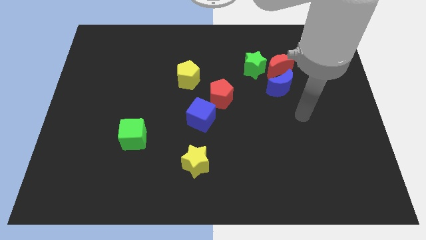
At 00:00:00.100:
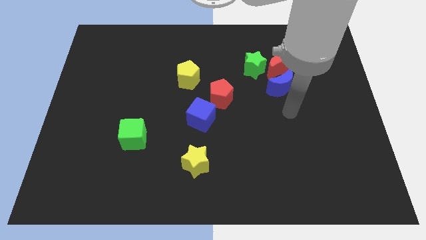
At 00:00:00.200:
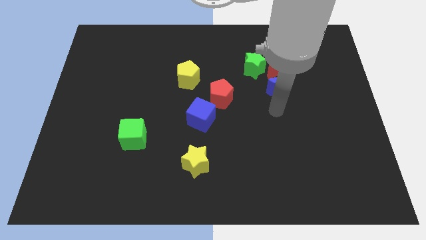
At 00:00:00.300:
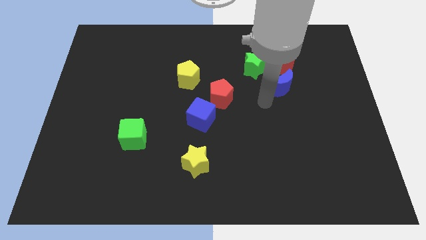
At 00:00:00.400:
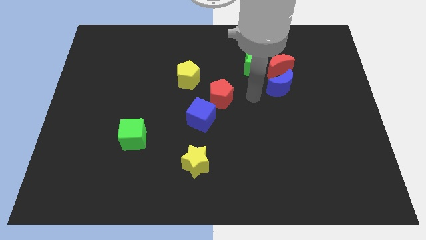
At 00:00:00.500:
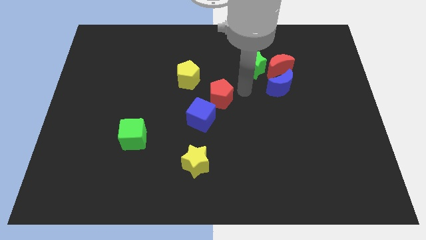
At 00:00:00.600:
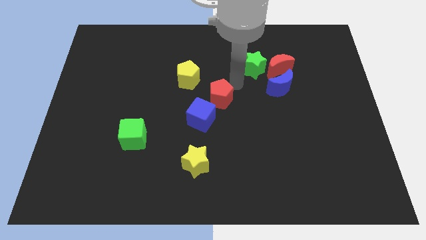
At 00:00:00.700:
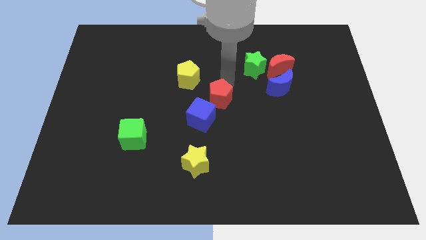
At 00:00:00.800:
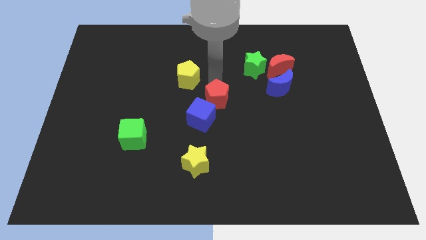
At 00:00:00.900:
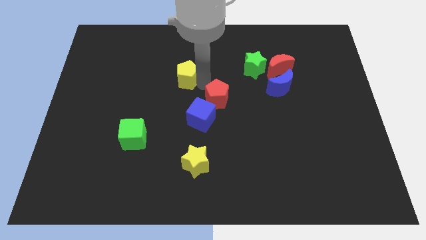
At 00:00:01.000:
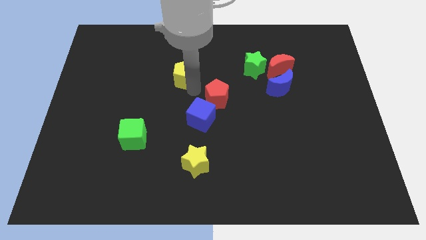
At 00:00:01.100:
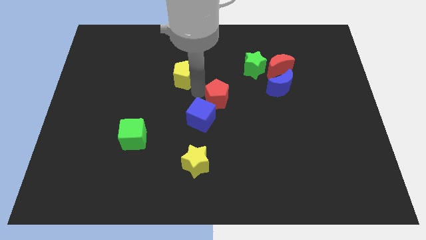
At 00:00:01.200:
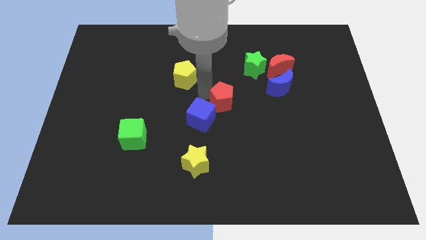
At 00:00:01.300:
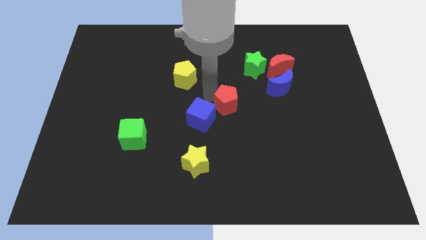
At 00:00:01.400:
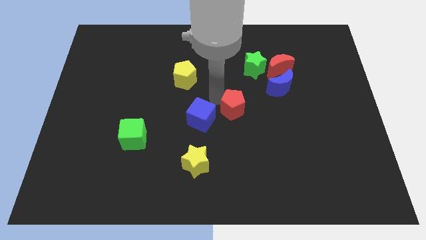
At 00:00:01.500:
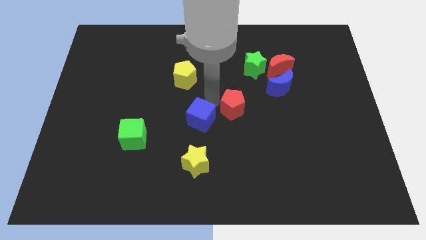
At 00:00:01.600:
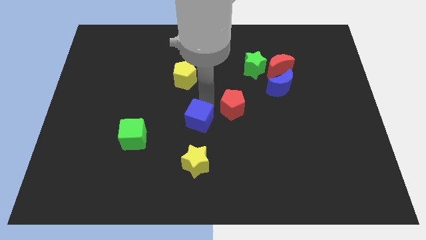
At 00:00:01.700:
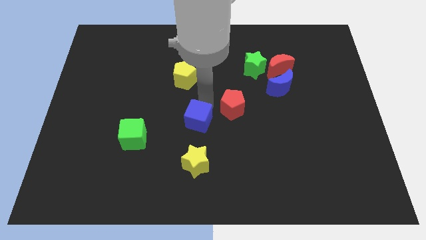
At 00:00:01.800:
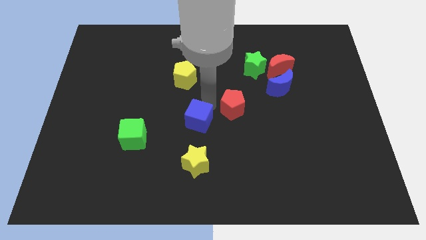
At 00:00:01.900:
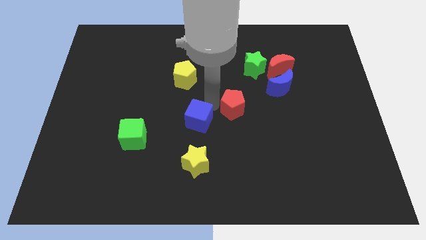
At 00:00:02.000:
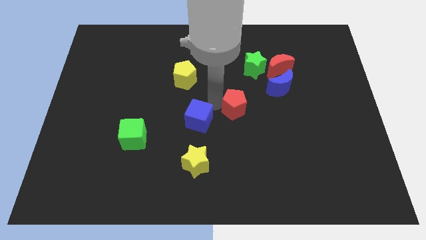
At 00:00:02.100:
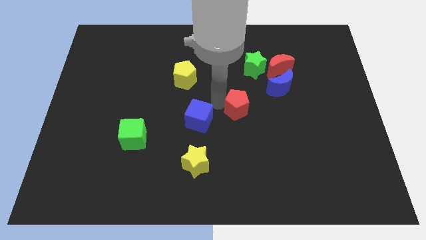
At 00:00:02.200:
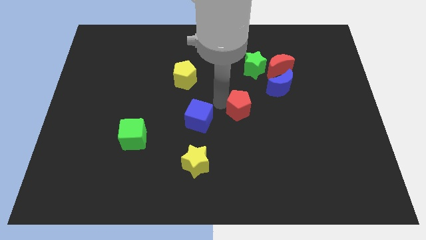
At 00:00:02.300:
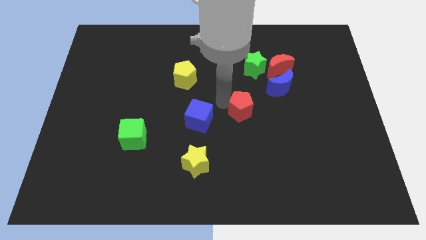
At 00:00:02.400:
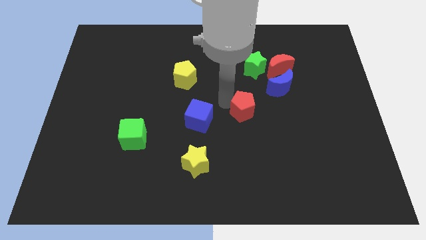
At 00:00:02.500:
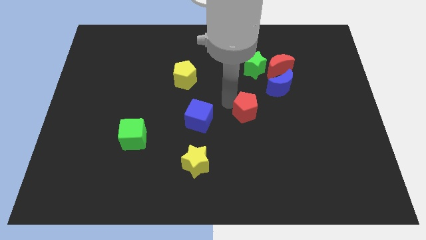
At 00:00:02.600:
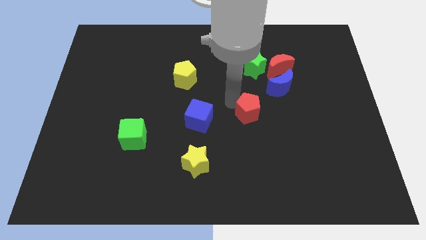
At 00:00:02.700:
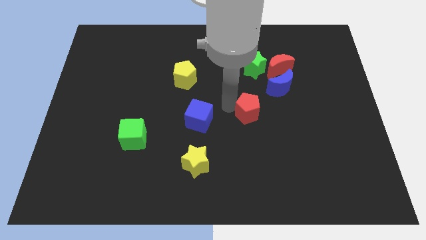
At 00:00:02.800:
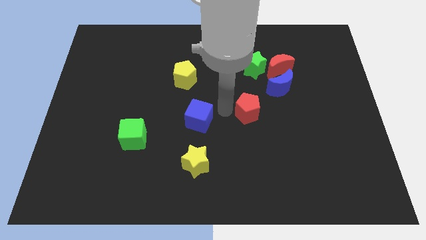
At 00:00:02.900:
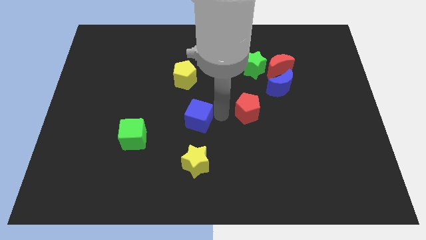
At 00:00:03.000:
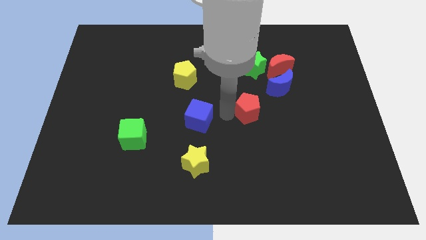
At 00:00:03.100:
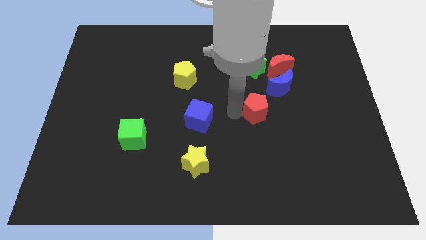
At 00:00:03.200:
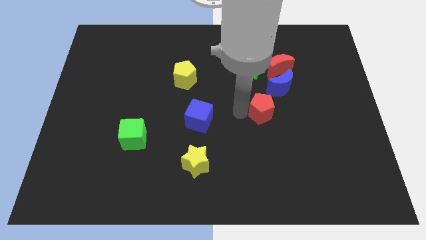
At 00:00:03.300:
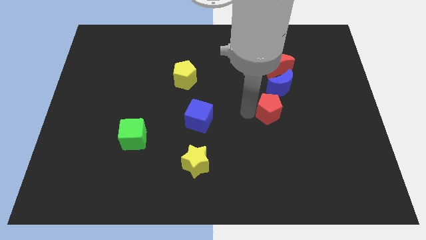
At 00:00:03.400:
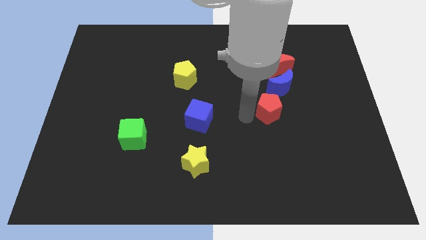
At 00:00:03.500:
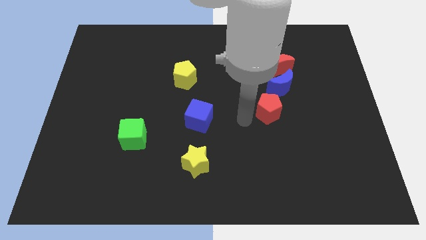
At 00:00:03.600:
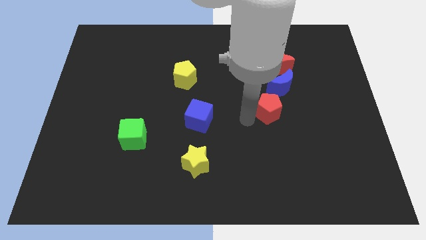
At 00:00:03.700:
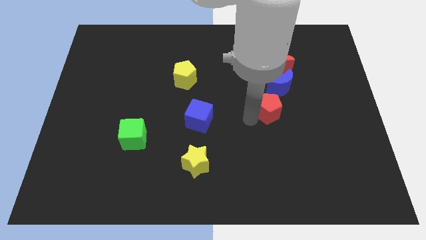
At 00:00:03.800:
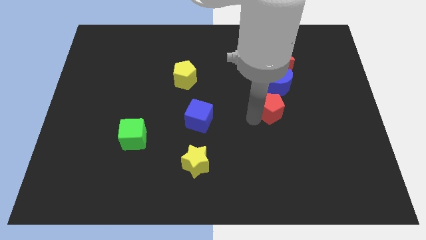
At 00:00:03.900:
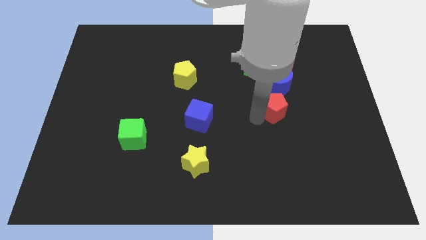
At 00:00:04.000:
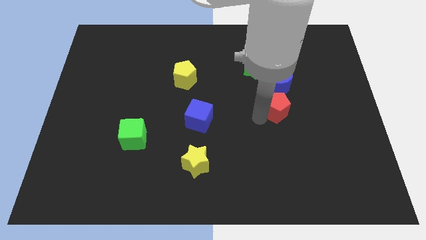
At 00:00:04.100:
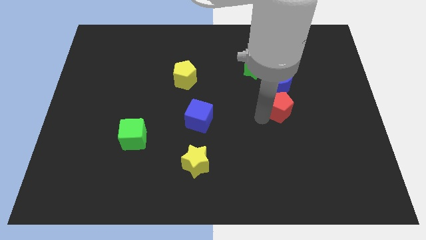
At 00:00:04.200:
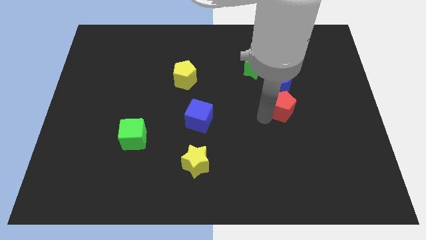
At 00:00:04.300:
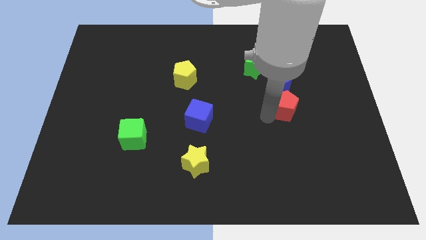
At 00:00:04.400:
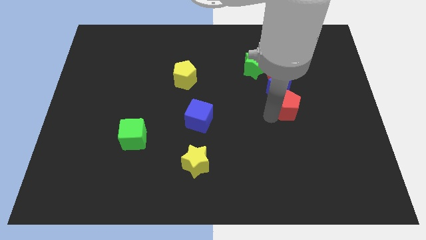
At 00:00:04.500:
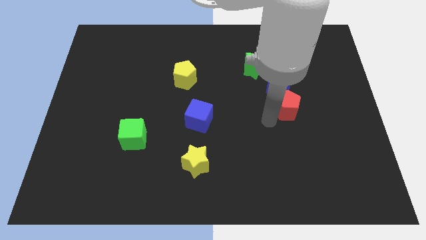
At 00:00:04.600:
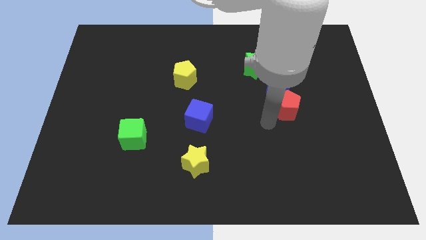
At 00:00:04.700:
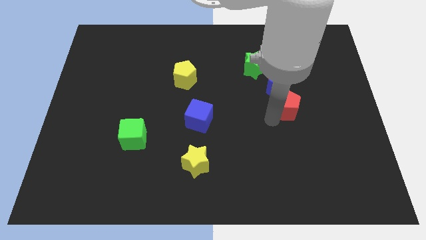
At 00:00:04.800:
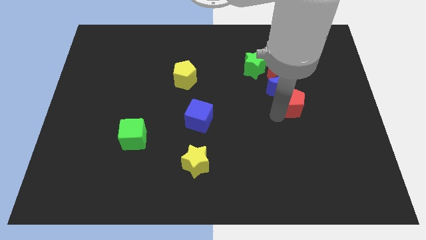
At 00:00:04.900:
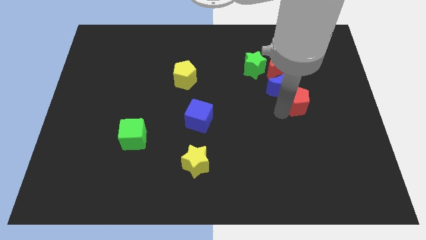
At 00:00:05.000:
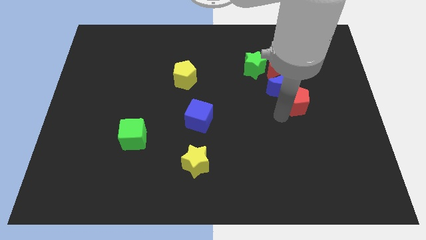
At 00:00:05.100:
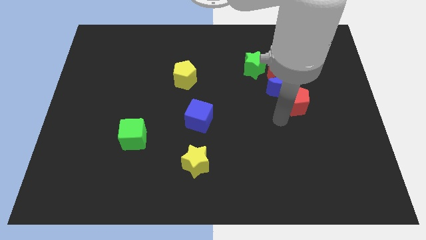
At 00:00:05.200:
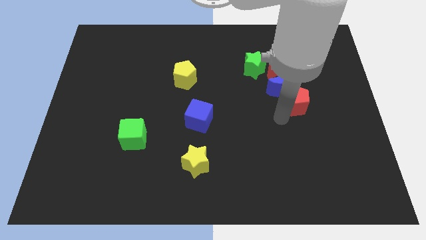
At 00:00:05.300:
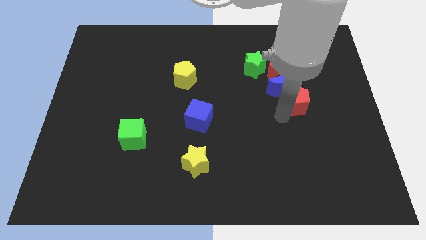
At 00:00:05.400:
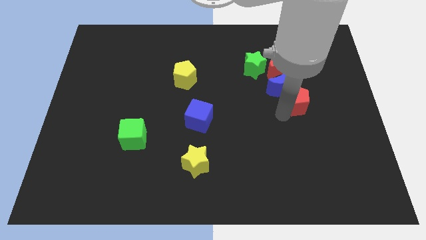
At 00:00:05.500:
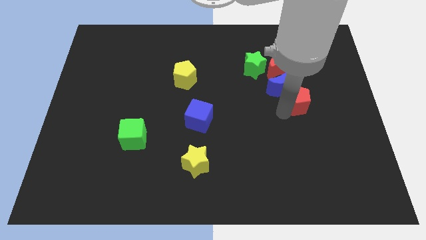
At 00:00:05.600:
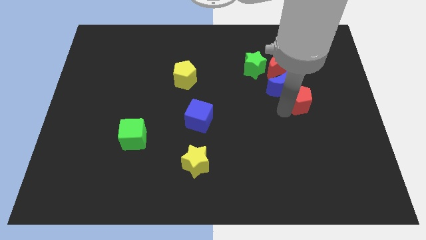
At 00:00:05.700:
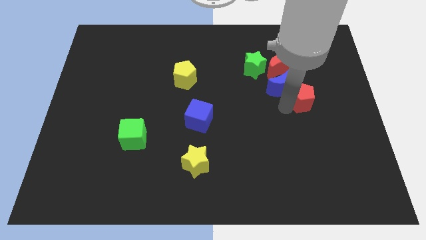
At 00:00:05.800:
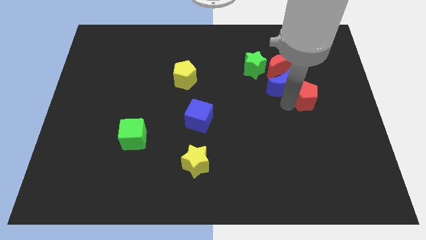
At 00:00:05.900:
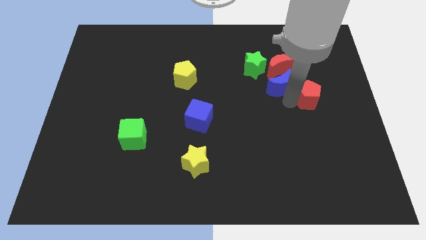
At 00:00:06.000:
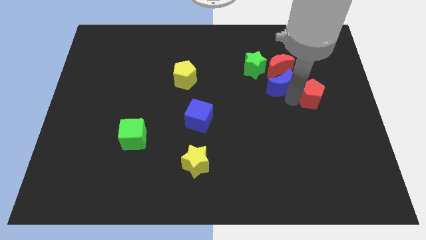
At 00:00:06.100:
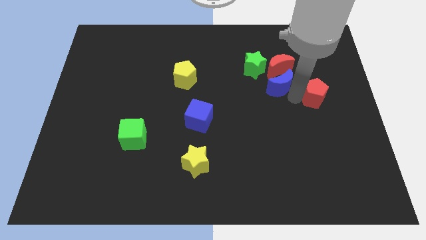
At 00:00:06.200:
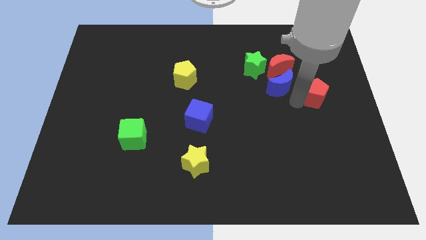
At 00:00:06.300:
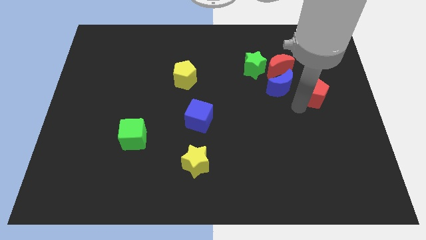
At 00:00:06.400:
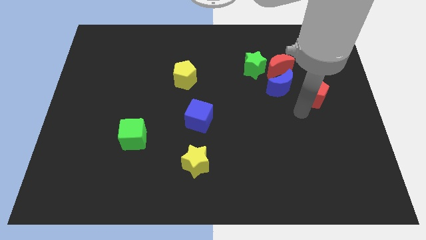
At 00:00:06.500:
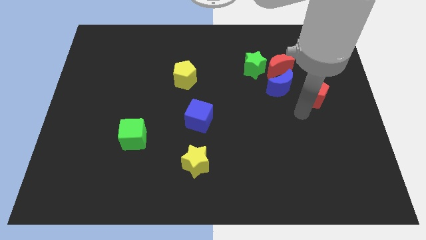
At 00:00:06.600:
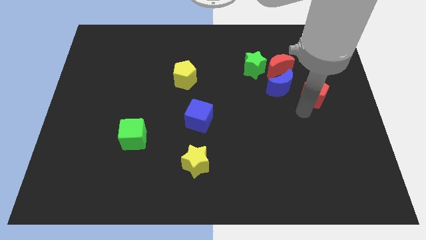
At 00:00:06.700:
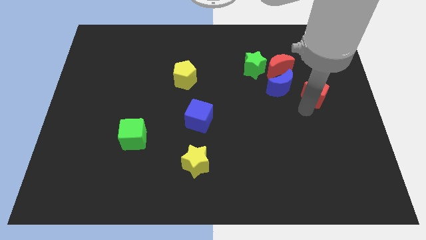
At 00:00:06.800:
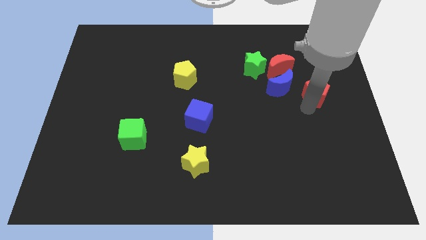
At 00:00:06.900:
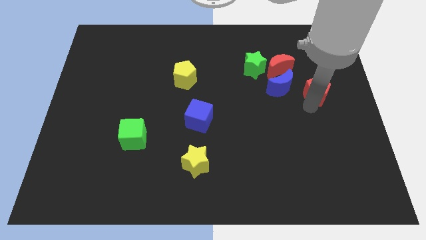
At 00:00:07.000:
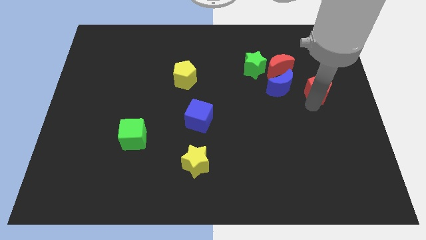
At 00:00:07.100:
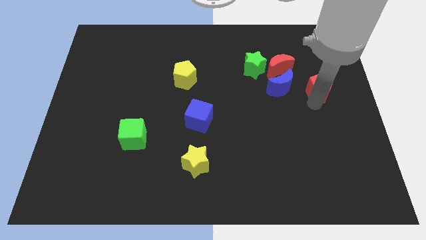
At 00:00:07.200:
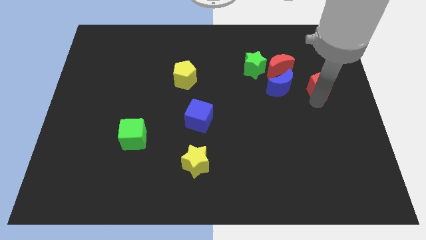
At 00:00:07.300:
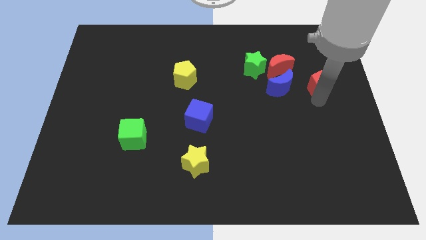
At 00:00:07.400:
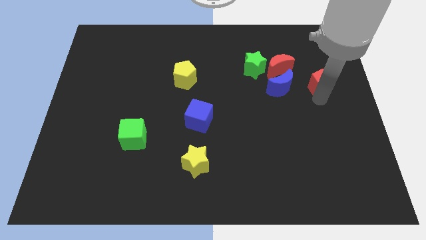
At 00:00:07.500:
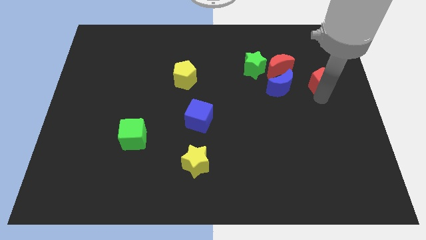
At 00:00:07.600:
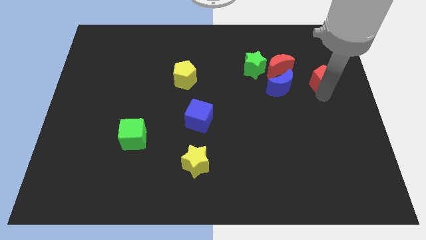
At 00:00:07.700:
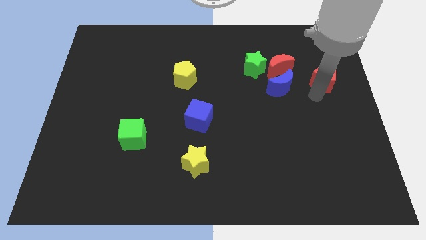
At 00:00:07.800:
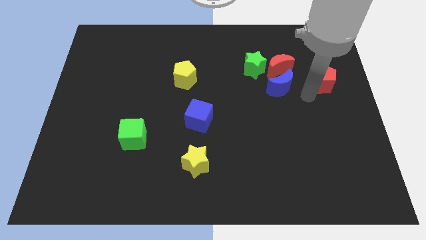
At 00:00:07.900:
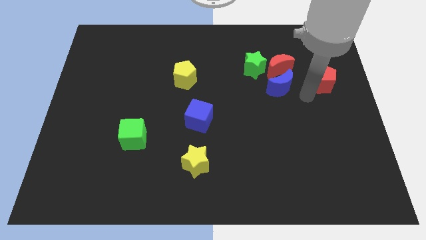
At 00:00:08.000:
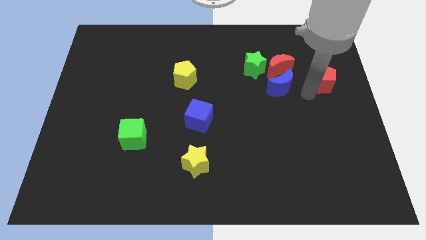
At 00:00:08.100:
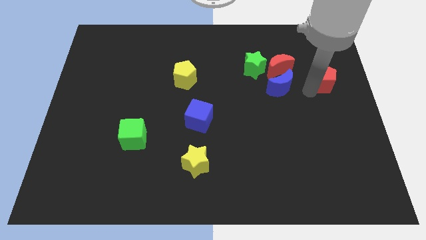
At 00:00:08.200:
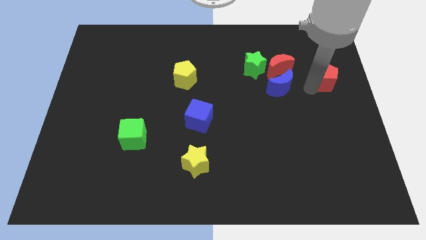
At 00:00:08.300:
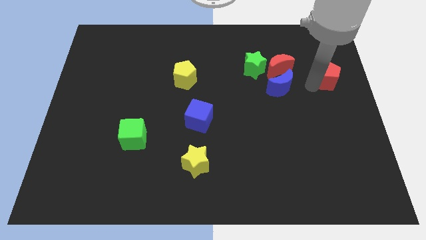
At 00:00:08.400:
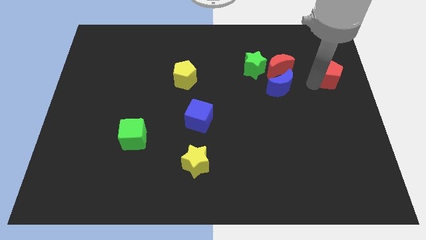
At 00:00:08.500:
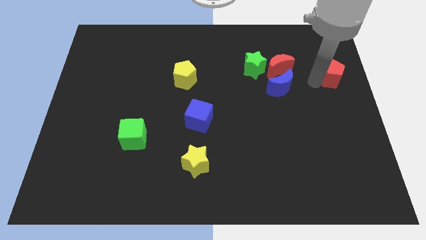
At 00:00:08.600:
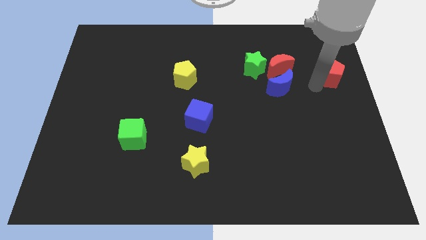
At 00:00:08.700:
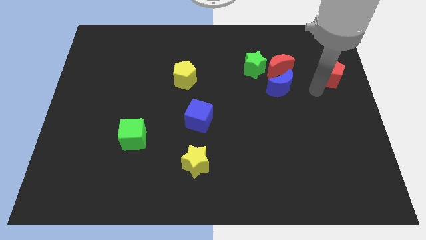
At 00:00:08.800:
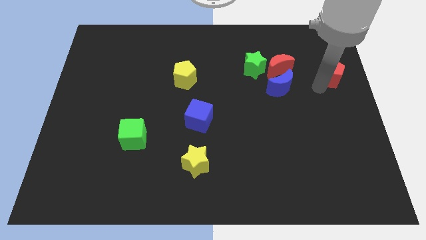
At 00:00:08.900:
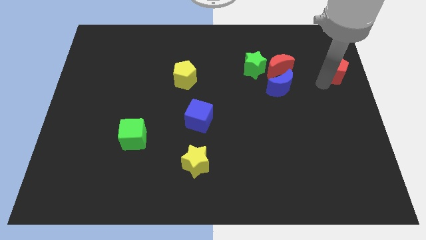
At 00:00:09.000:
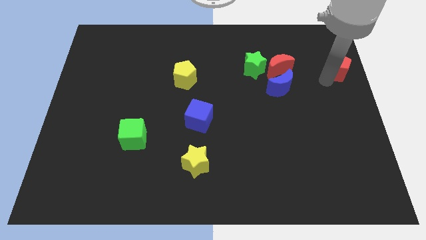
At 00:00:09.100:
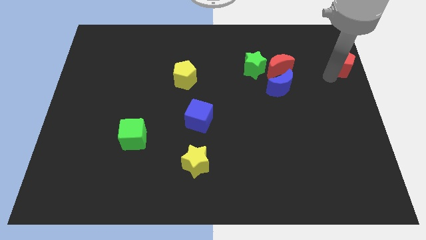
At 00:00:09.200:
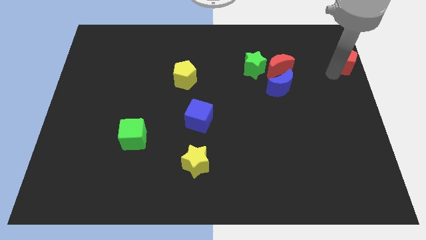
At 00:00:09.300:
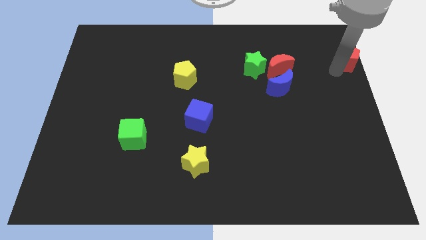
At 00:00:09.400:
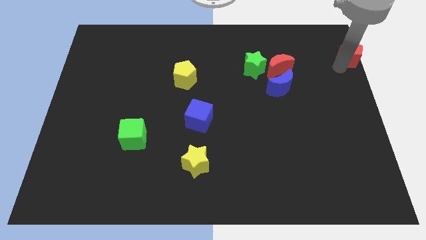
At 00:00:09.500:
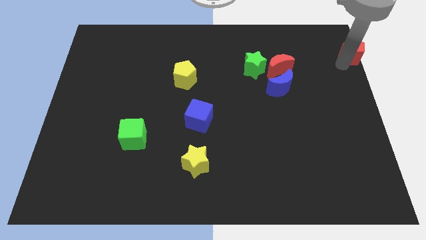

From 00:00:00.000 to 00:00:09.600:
put the red pentagon to the top right corner
